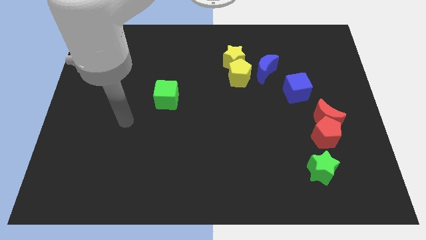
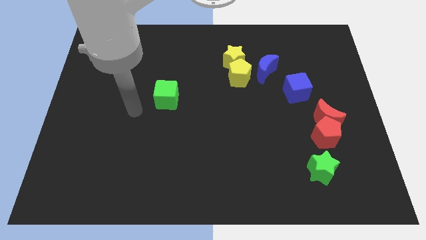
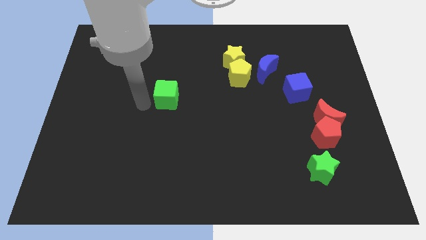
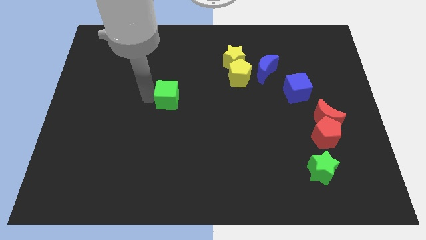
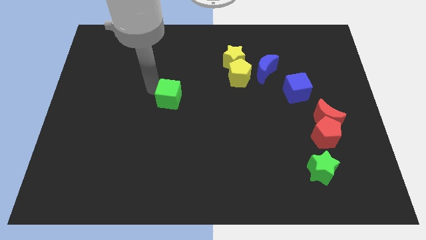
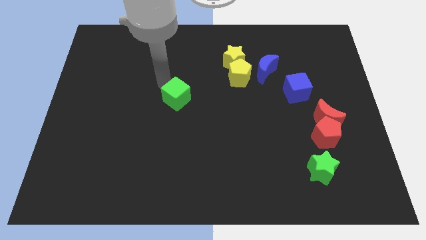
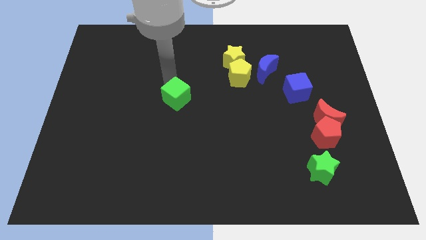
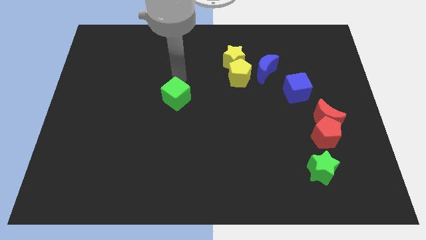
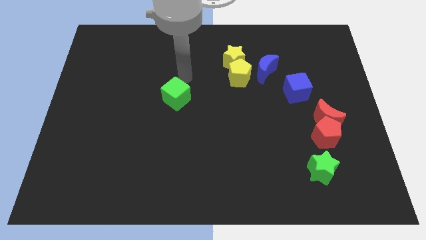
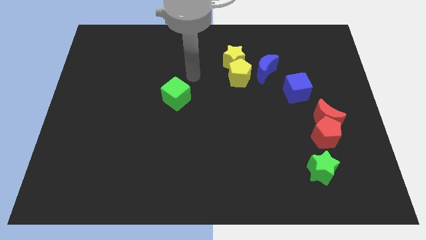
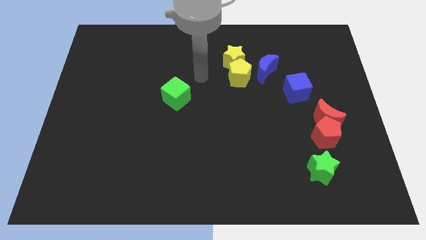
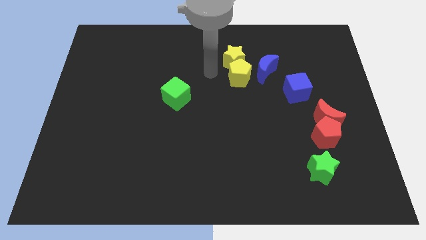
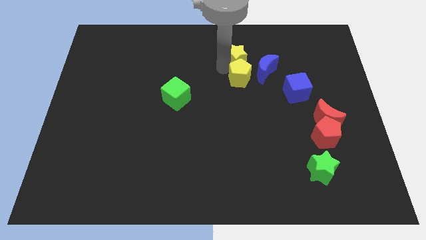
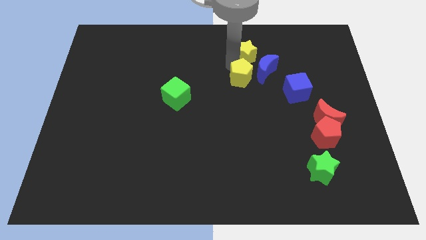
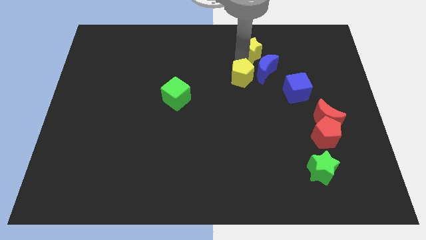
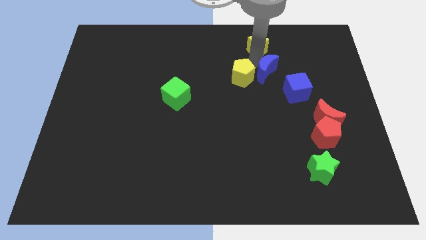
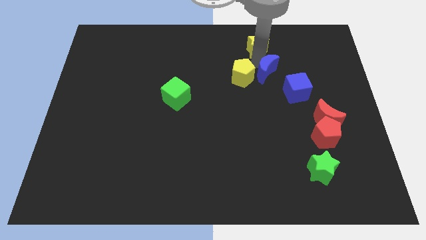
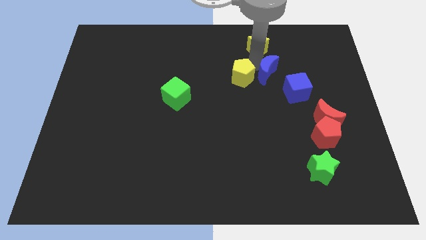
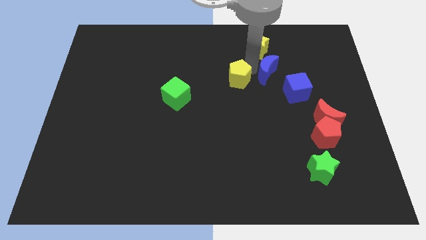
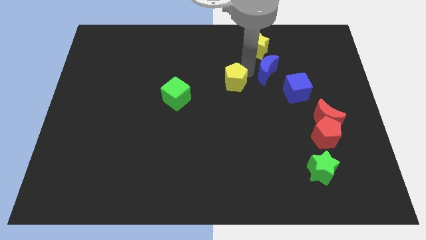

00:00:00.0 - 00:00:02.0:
pull the yellow pentagon apart from the yellow star and blue moon

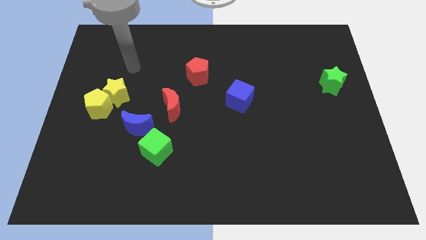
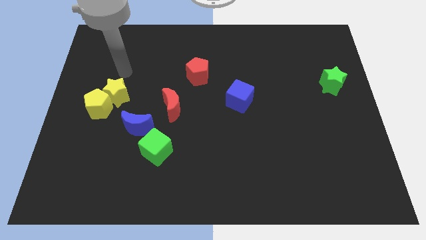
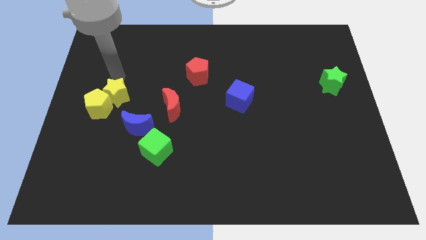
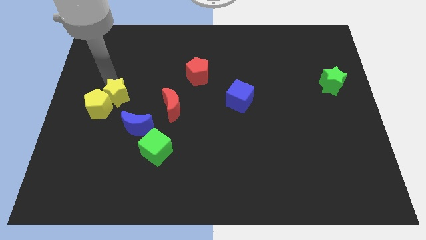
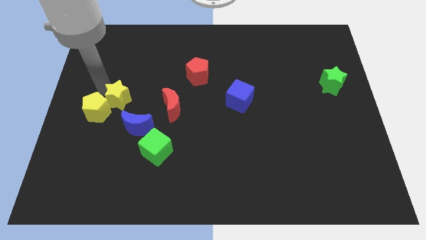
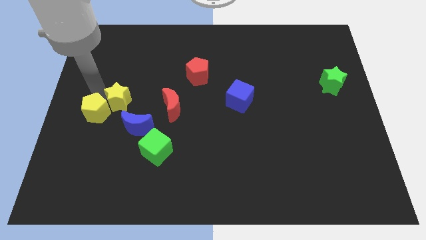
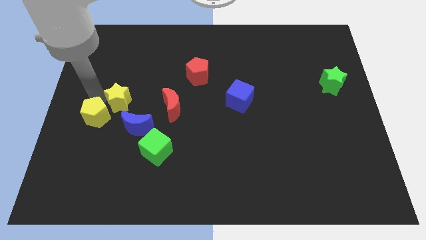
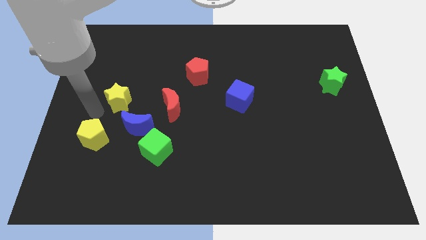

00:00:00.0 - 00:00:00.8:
pull the yellow star apart from the yellow pentagon

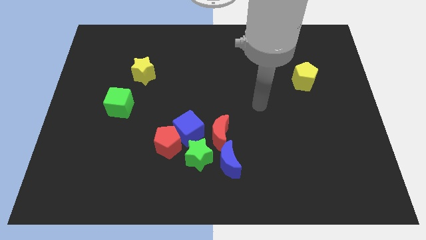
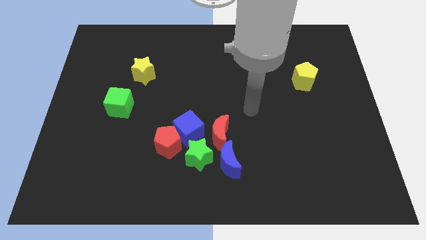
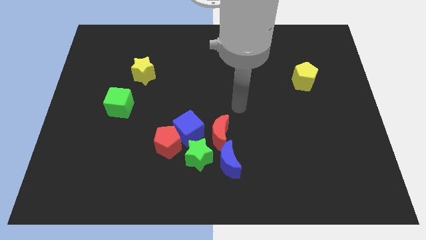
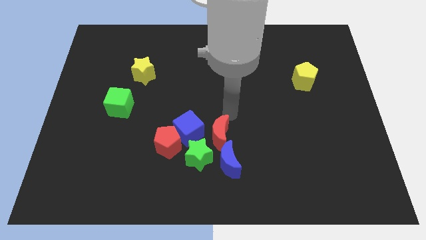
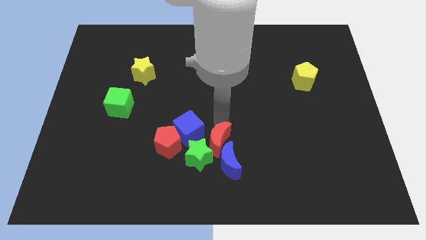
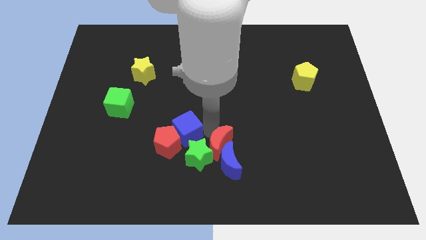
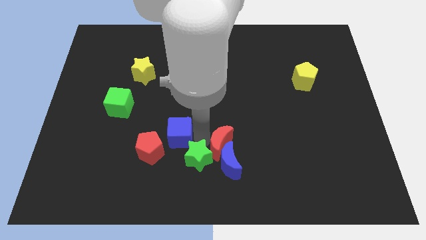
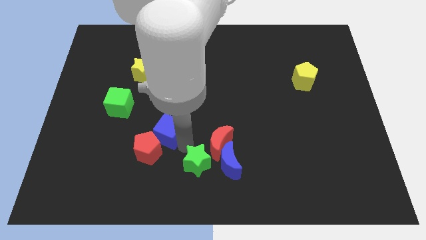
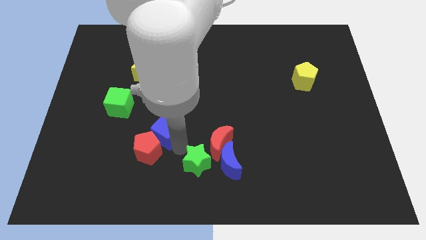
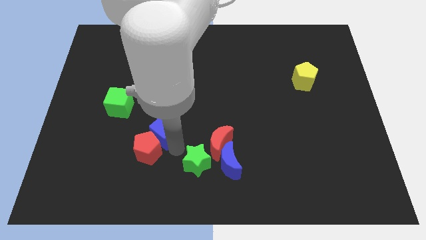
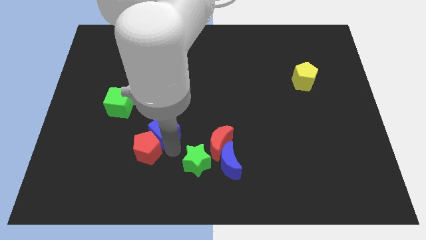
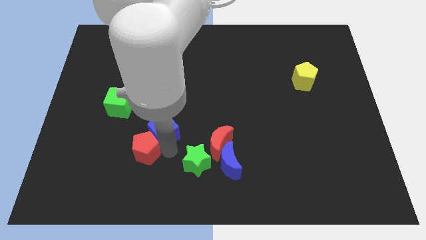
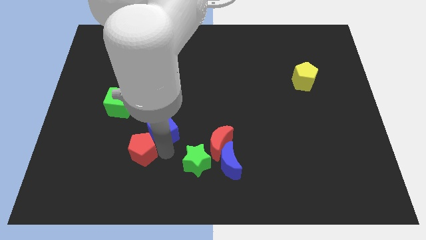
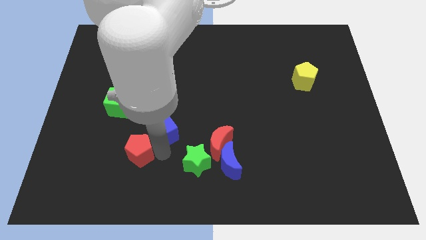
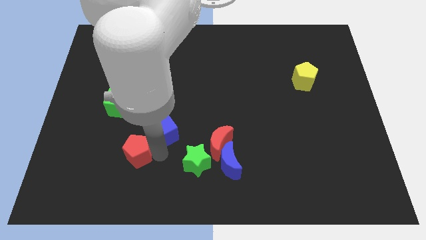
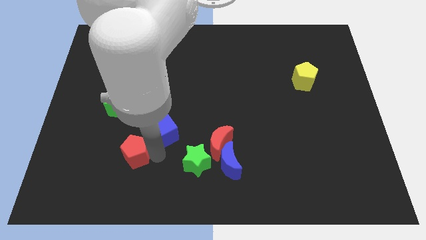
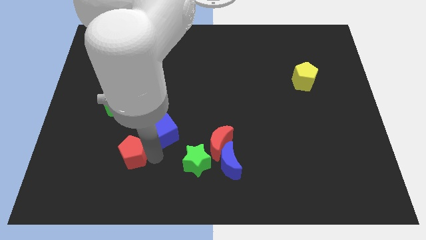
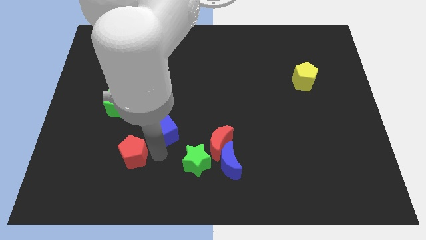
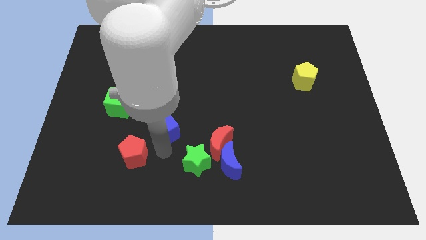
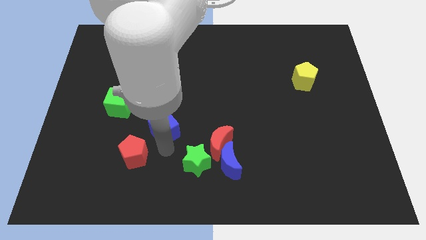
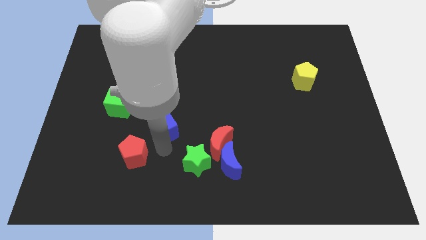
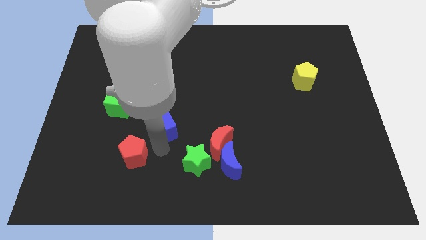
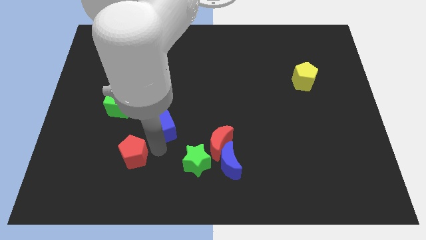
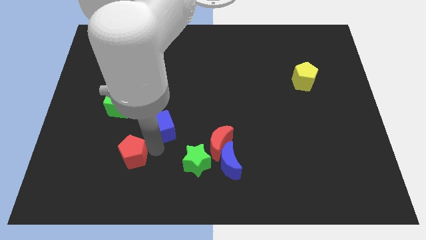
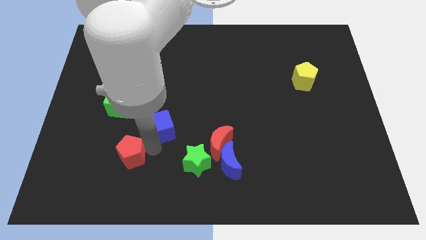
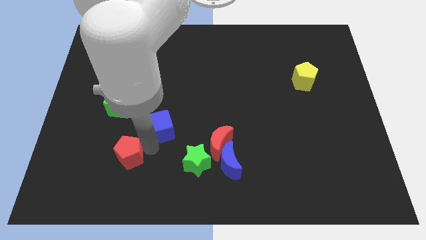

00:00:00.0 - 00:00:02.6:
pull the red pentagon apart from the blue cube and green star

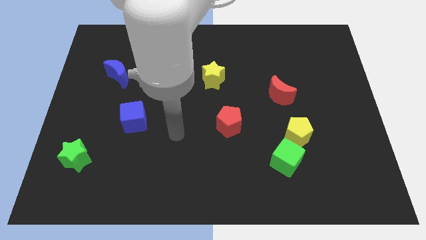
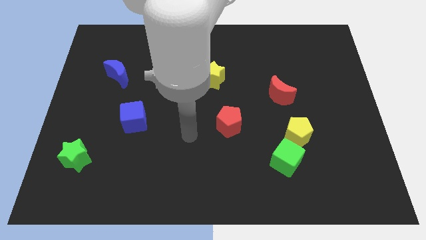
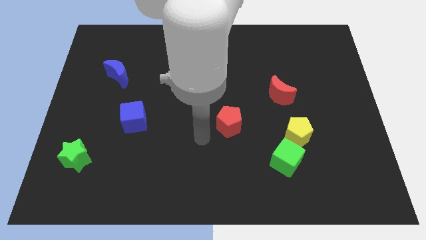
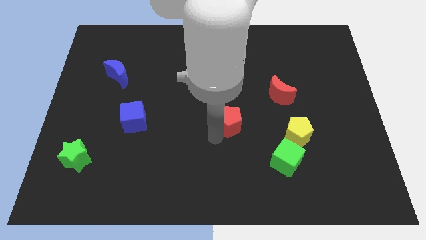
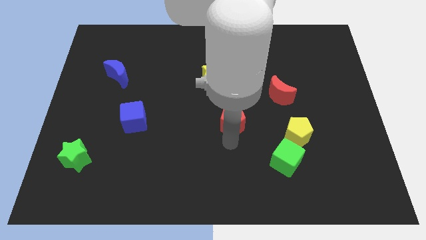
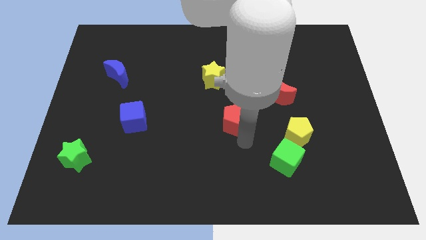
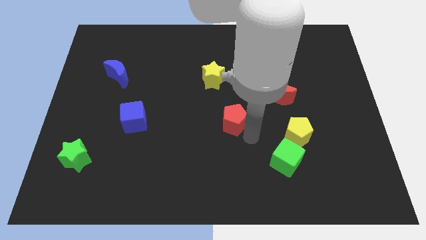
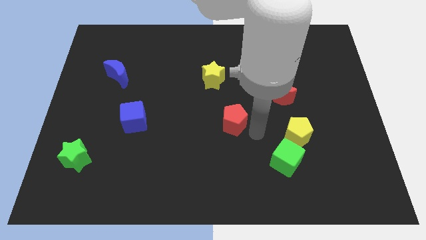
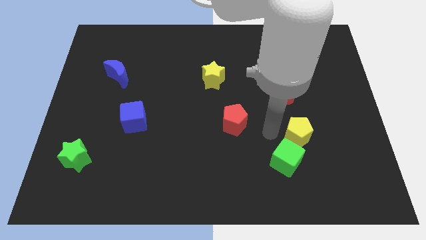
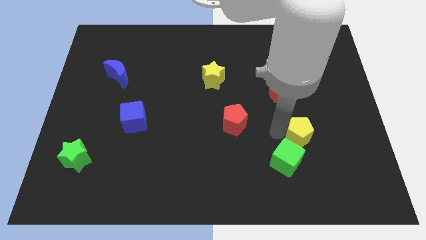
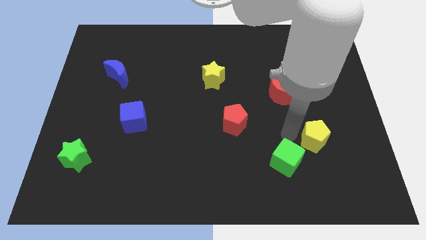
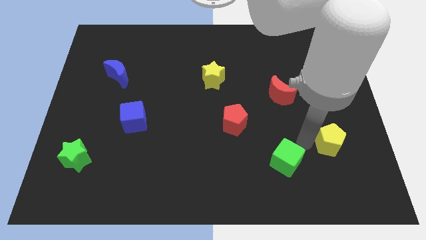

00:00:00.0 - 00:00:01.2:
pull the green cube apart from the yellow pentagon

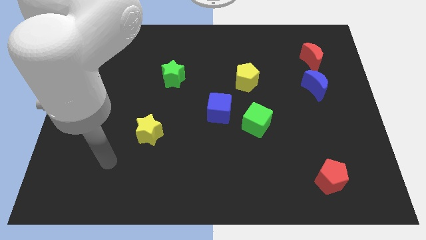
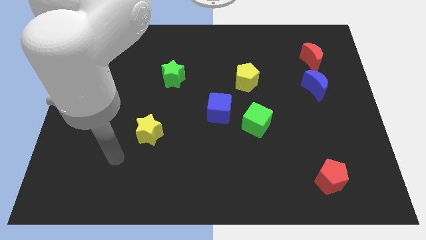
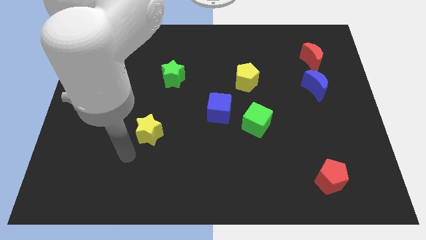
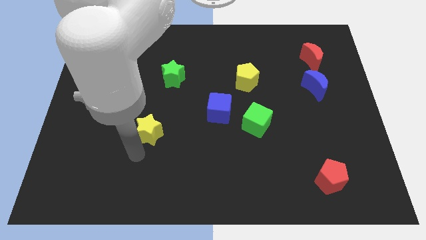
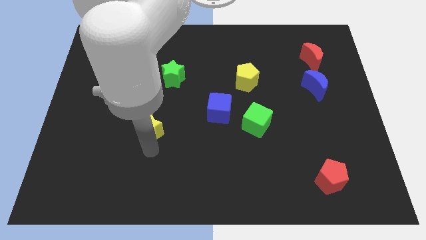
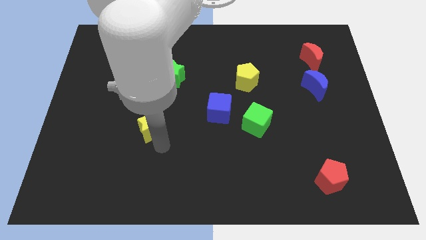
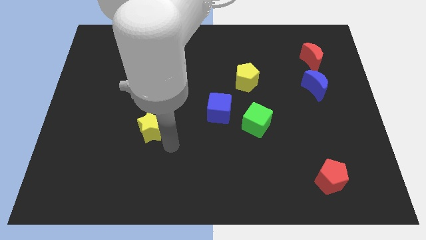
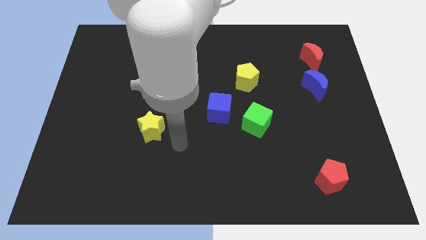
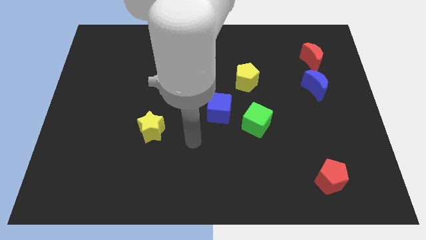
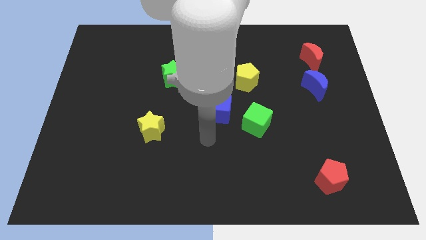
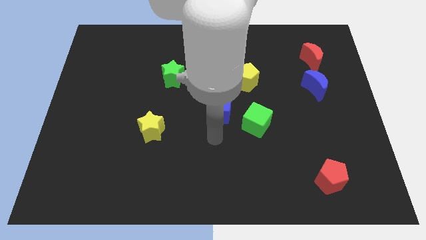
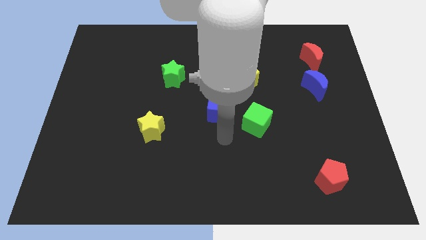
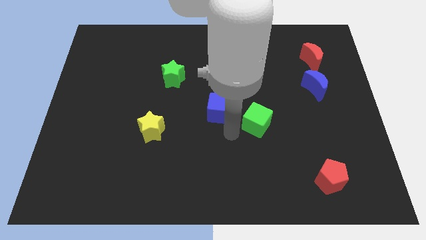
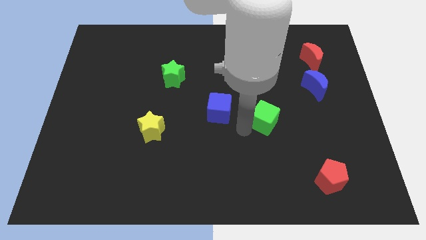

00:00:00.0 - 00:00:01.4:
separate the blue cube from the green cube

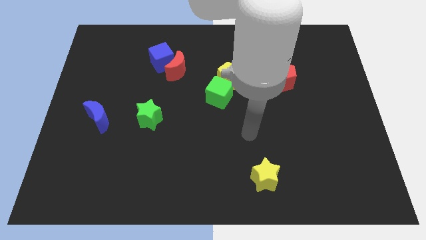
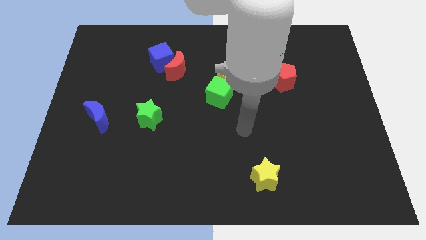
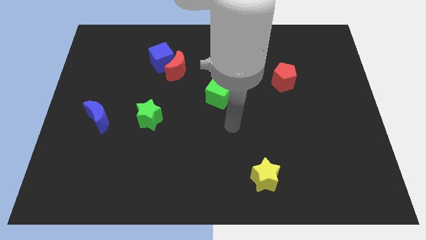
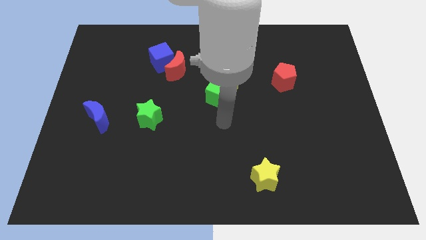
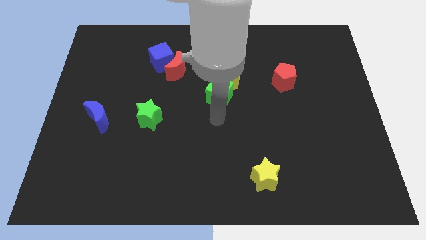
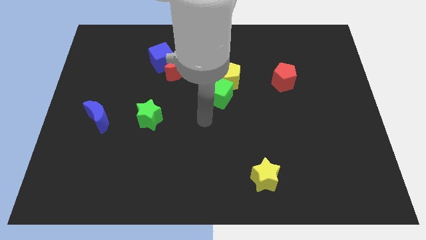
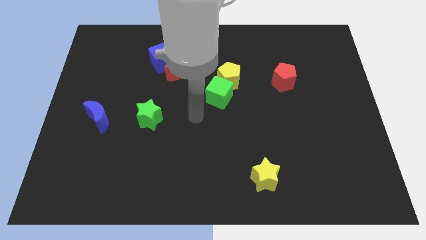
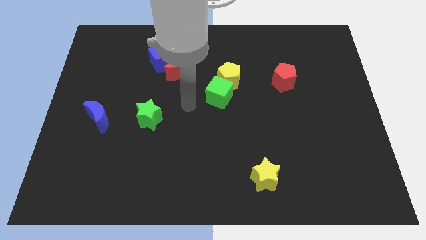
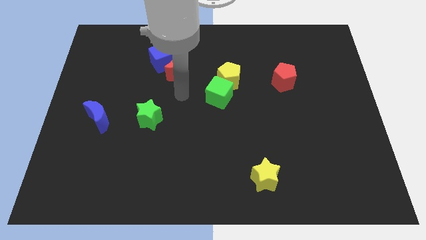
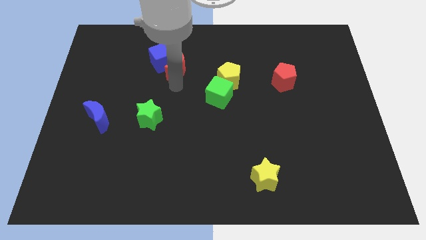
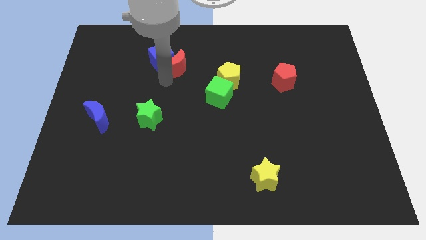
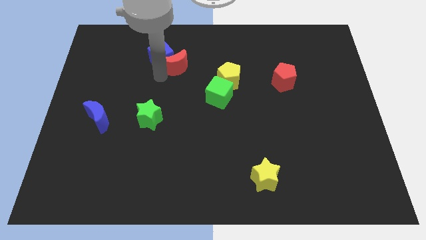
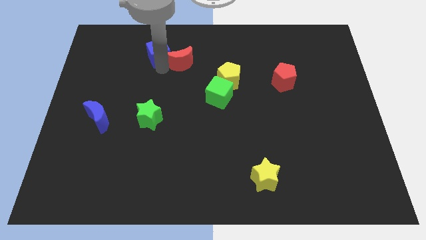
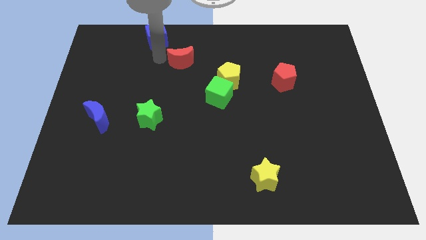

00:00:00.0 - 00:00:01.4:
separate the red moon from the blue cube
